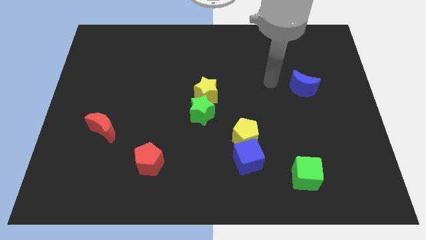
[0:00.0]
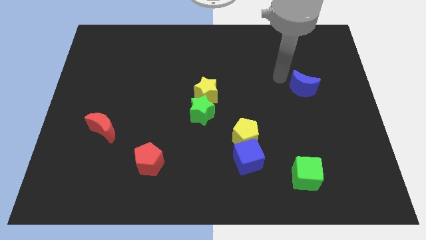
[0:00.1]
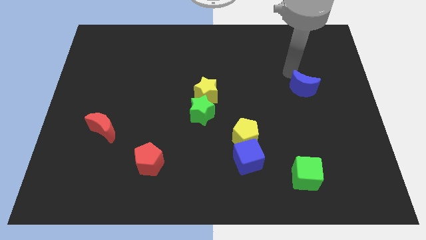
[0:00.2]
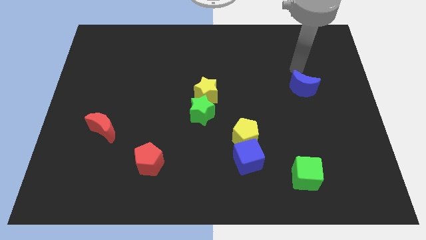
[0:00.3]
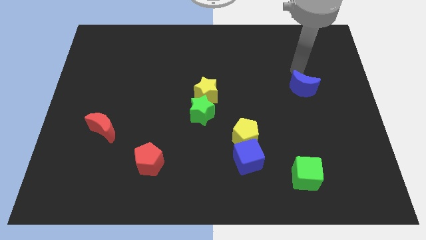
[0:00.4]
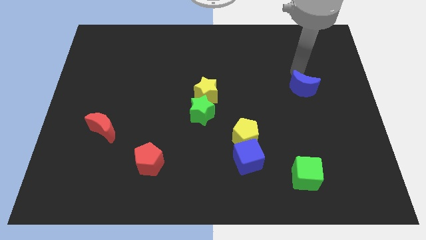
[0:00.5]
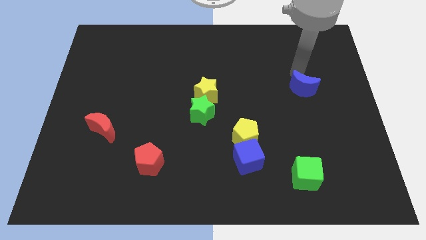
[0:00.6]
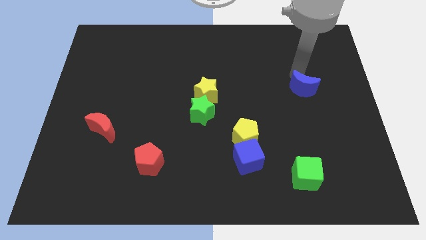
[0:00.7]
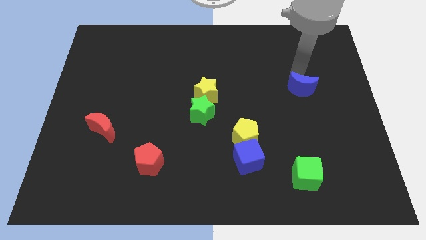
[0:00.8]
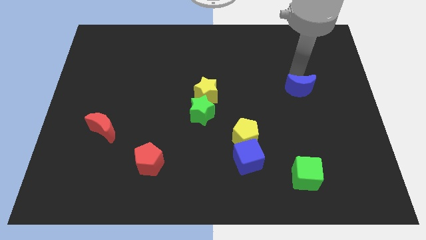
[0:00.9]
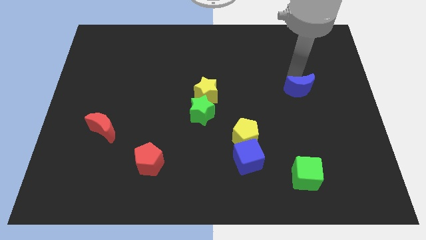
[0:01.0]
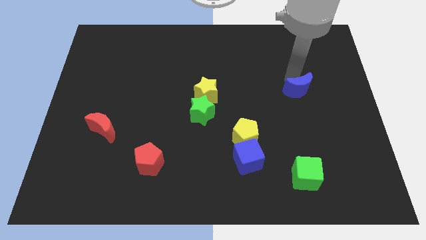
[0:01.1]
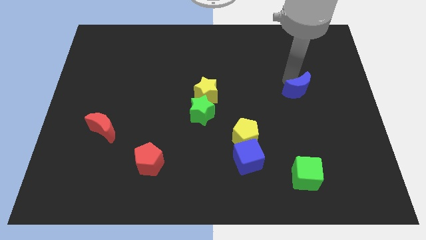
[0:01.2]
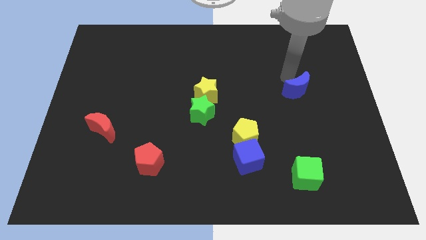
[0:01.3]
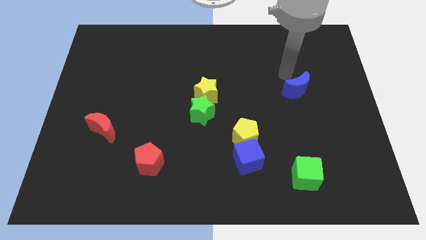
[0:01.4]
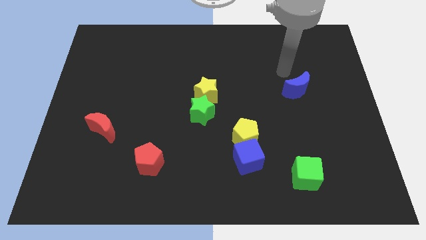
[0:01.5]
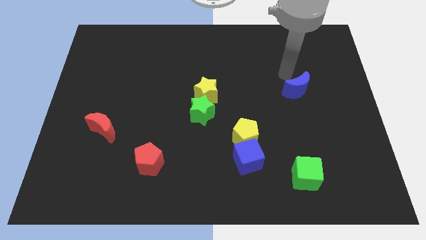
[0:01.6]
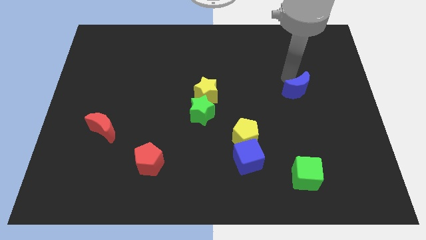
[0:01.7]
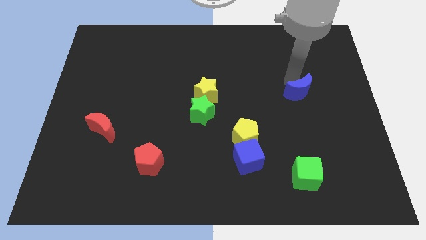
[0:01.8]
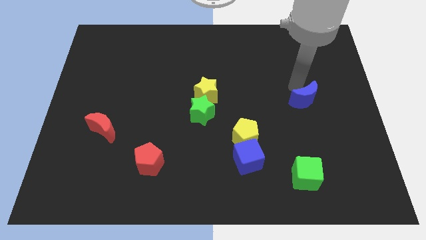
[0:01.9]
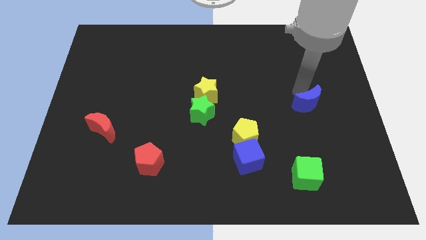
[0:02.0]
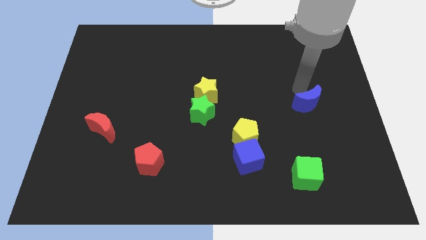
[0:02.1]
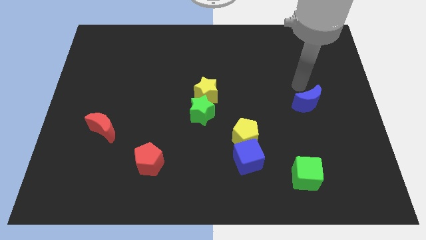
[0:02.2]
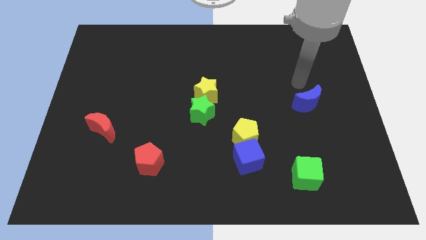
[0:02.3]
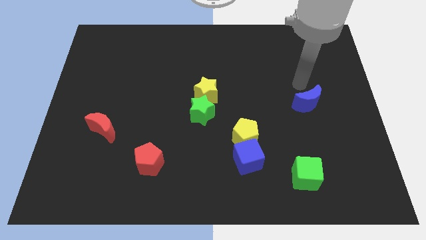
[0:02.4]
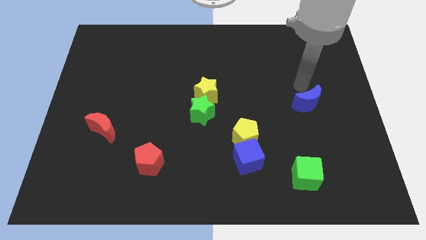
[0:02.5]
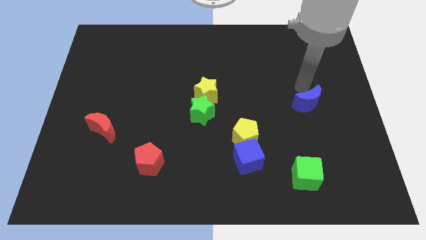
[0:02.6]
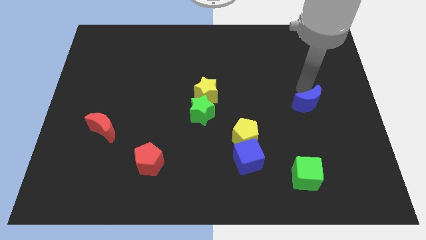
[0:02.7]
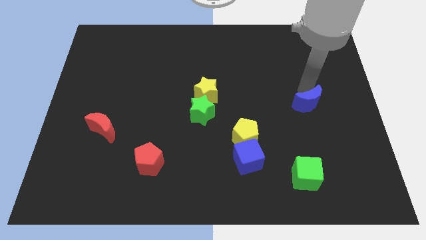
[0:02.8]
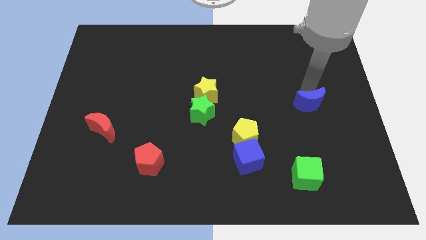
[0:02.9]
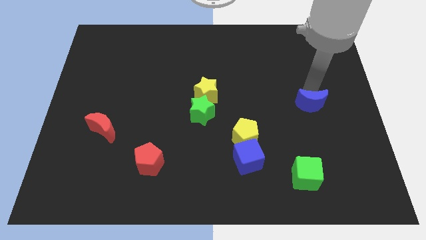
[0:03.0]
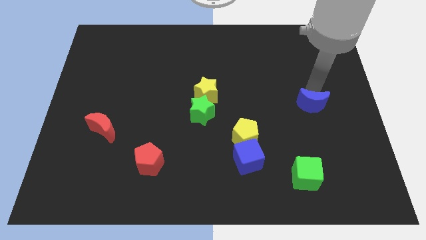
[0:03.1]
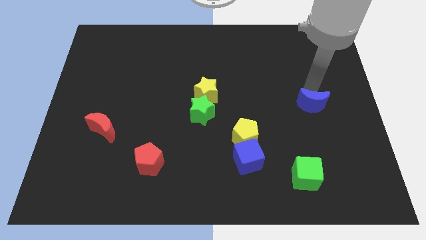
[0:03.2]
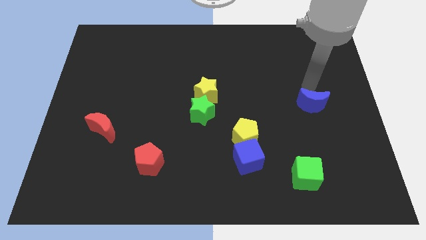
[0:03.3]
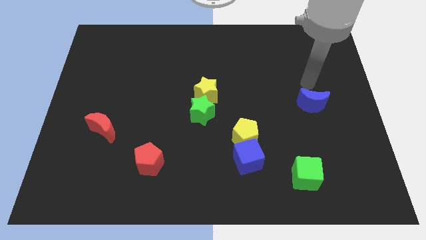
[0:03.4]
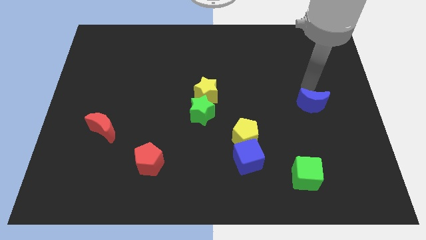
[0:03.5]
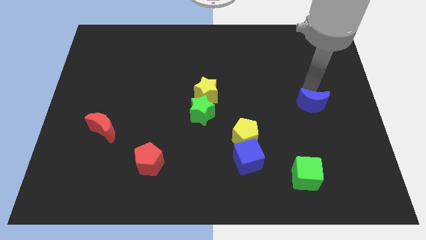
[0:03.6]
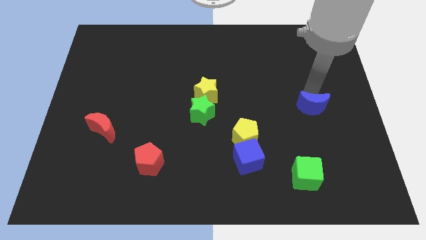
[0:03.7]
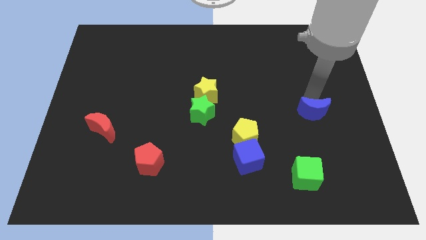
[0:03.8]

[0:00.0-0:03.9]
slightly slide the blue moon down

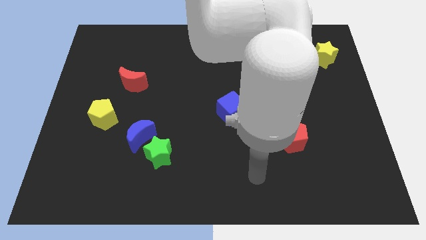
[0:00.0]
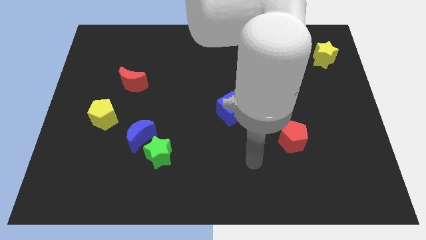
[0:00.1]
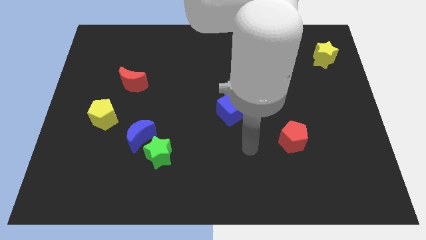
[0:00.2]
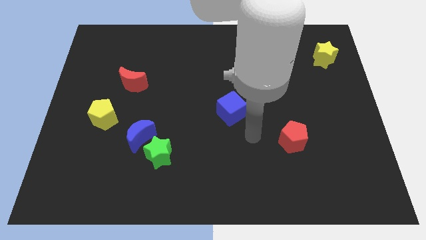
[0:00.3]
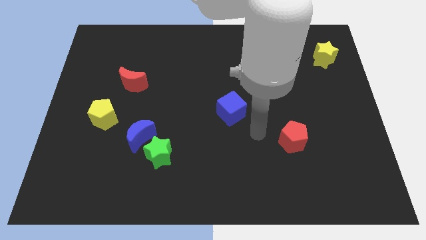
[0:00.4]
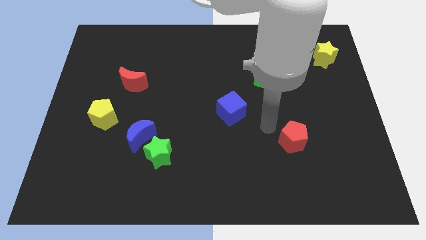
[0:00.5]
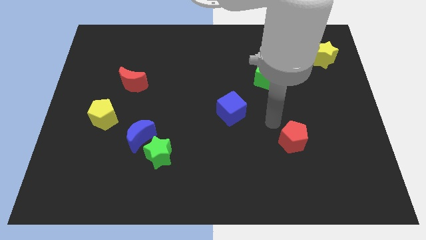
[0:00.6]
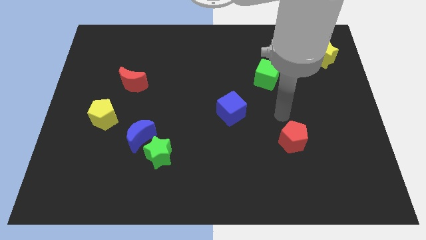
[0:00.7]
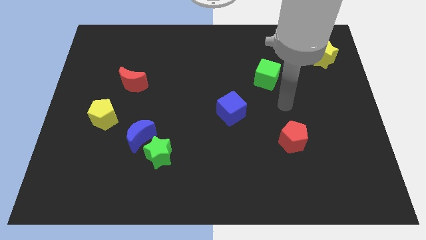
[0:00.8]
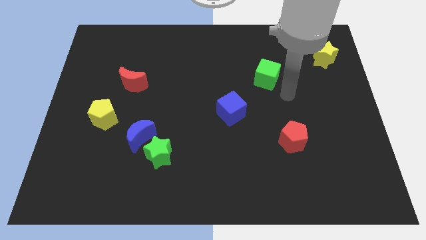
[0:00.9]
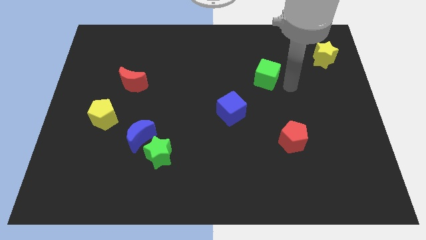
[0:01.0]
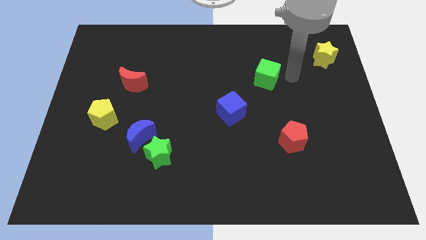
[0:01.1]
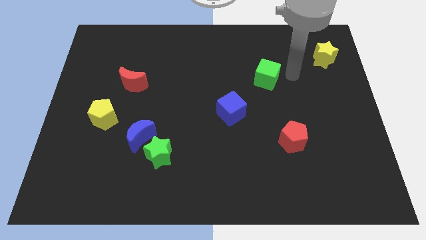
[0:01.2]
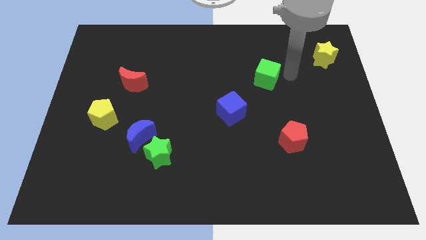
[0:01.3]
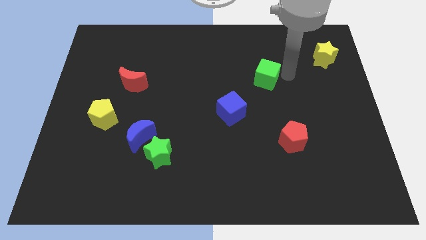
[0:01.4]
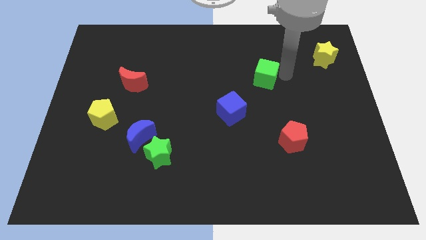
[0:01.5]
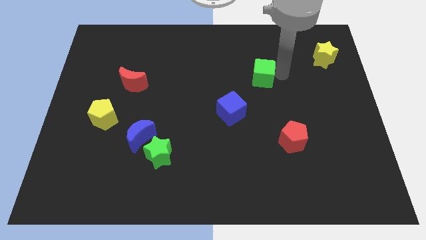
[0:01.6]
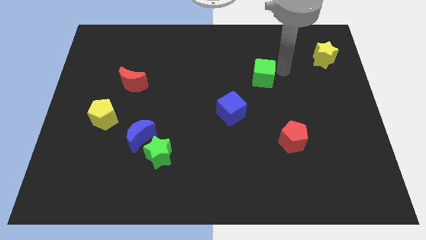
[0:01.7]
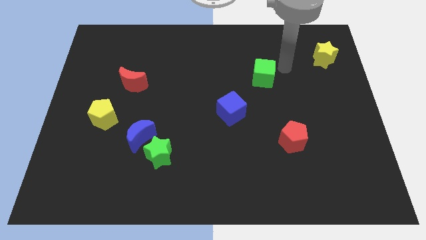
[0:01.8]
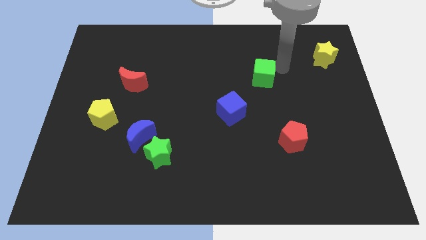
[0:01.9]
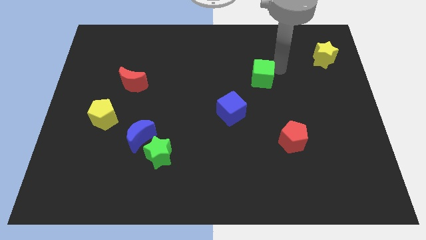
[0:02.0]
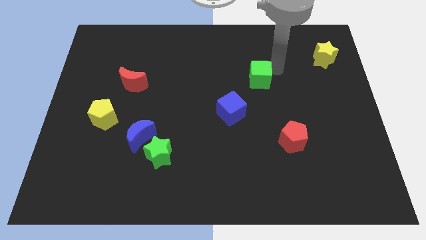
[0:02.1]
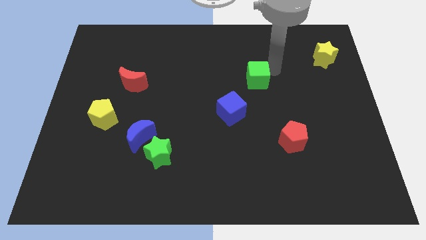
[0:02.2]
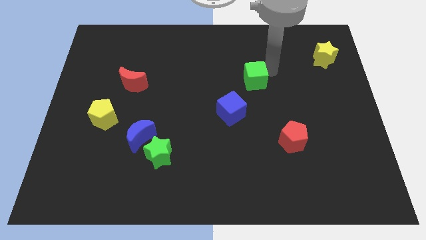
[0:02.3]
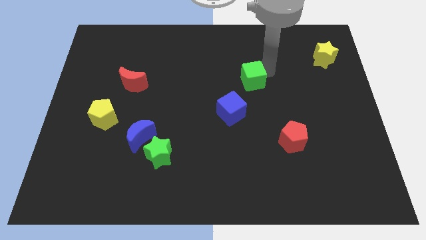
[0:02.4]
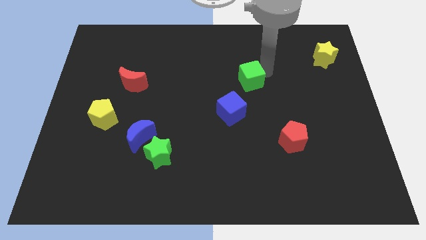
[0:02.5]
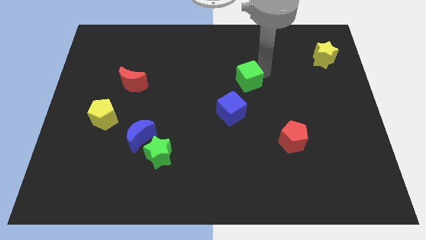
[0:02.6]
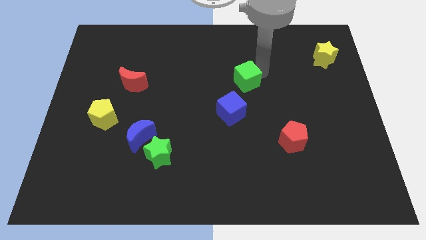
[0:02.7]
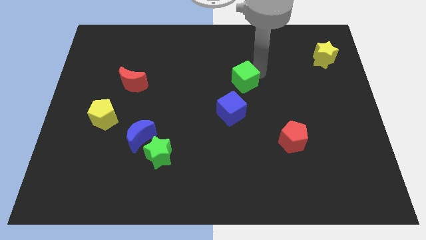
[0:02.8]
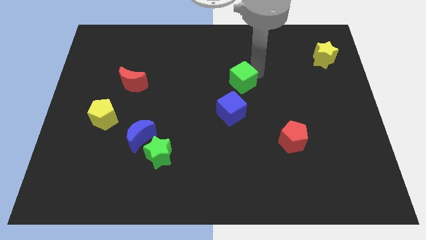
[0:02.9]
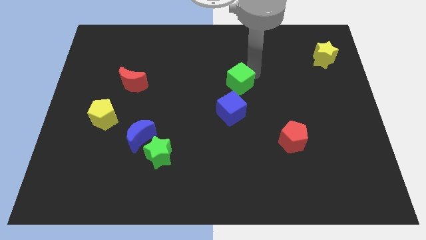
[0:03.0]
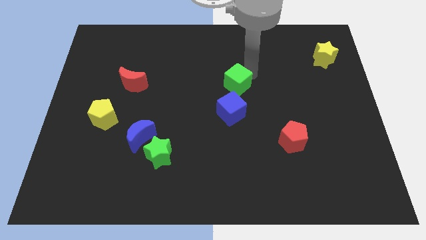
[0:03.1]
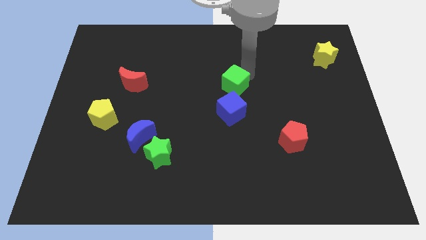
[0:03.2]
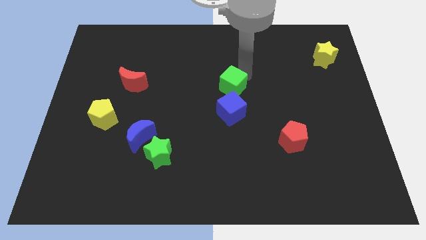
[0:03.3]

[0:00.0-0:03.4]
slightly slide the green cube down and then to the left

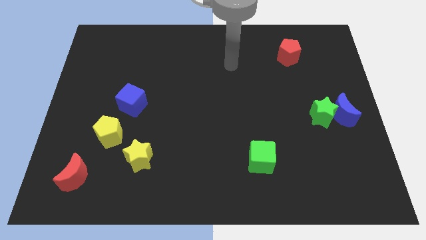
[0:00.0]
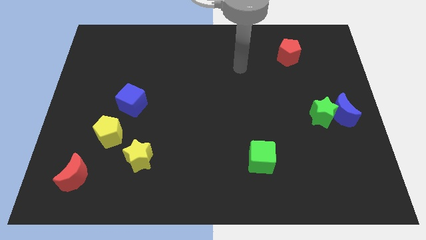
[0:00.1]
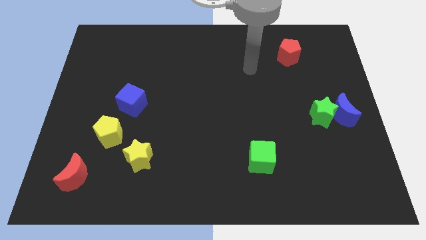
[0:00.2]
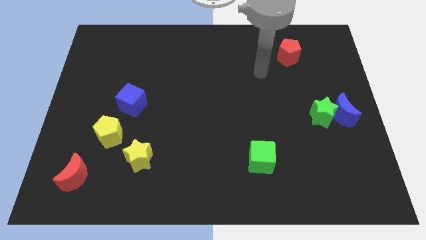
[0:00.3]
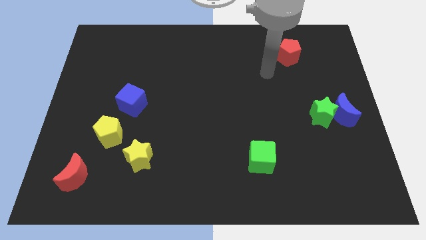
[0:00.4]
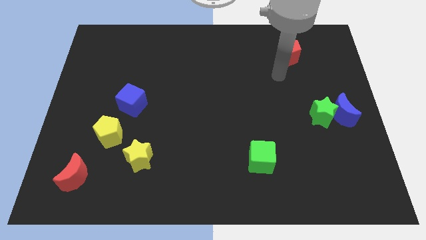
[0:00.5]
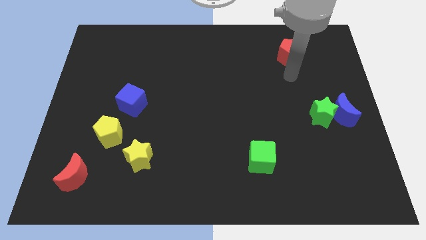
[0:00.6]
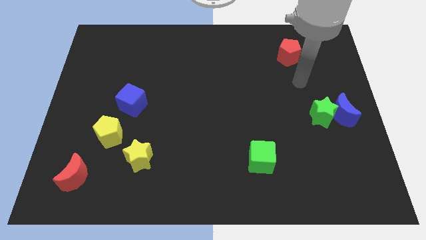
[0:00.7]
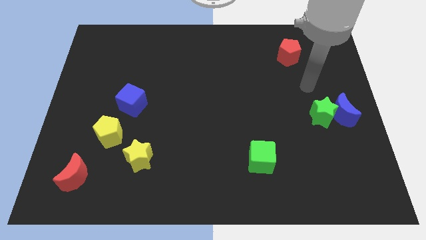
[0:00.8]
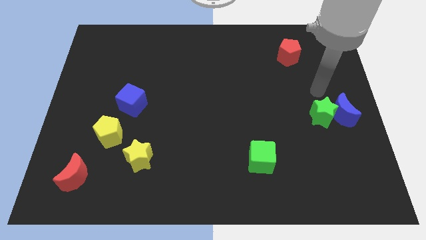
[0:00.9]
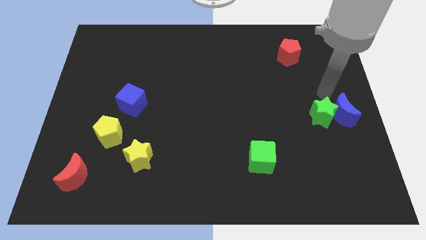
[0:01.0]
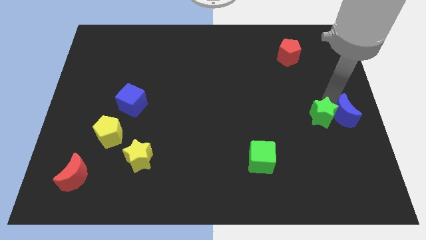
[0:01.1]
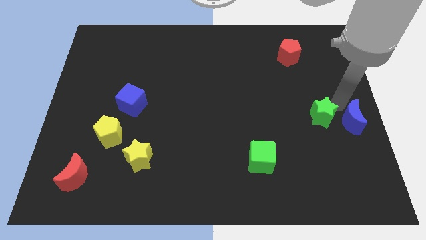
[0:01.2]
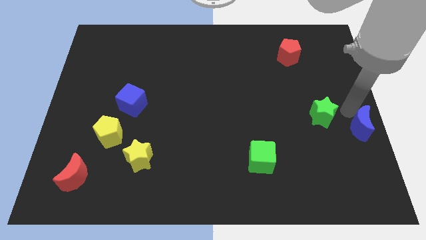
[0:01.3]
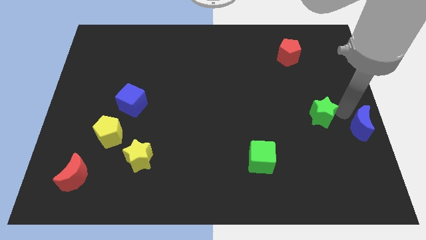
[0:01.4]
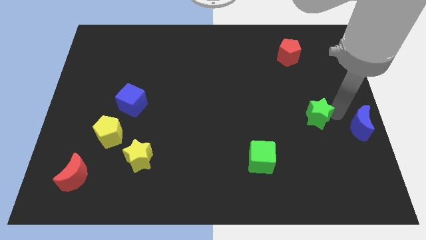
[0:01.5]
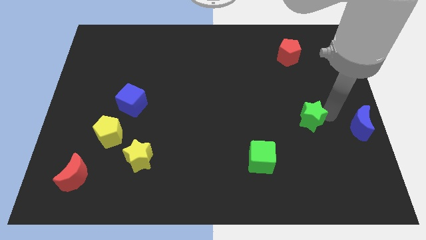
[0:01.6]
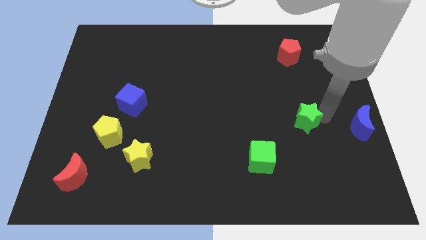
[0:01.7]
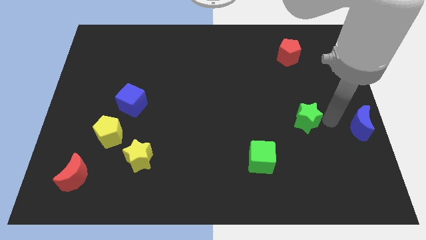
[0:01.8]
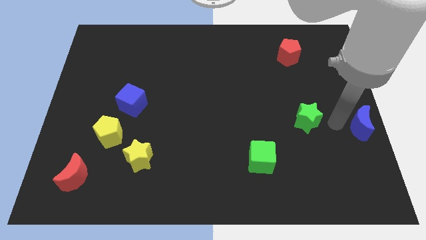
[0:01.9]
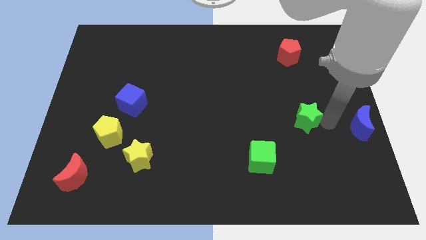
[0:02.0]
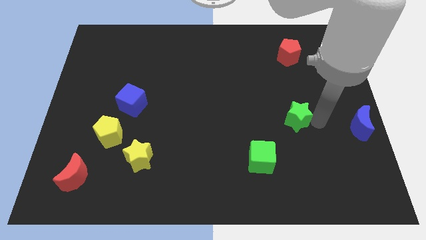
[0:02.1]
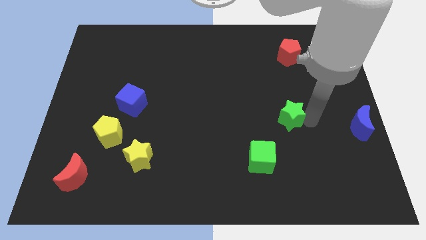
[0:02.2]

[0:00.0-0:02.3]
move the green star a little bit left
